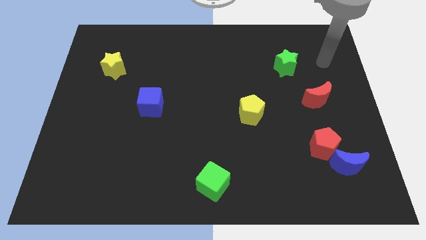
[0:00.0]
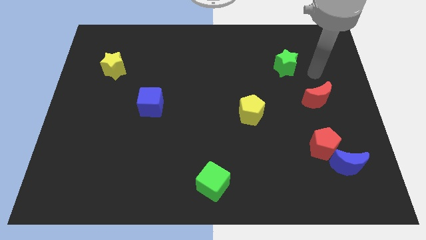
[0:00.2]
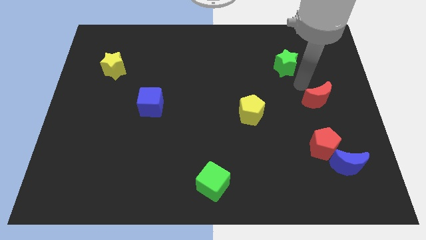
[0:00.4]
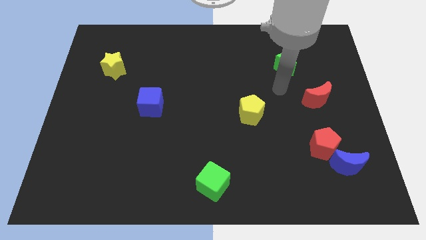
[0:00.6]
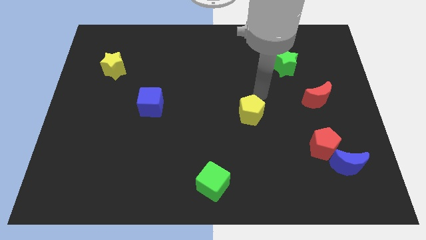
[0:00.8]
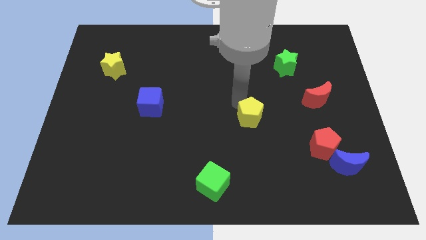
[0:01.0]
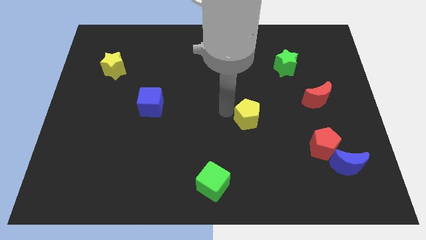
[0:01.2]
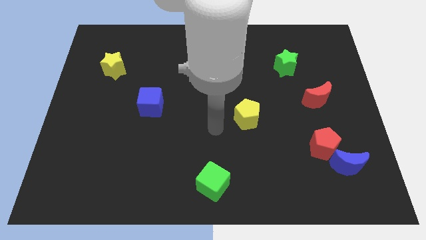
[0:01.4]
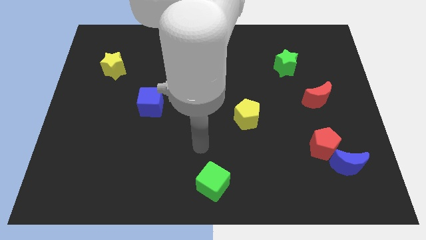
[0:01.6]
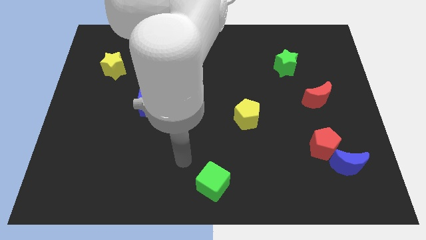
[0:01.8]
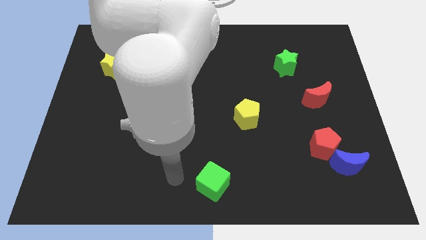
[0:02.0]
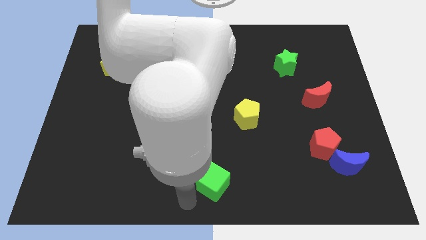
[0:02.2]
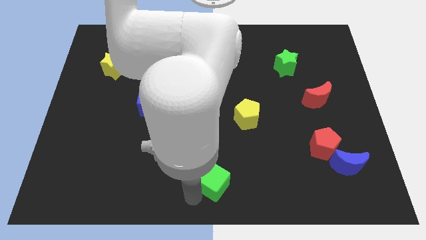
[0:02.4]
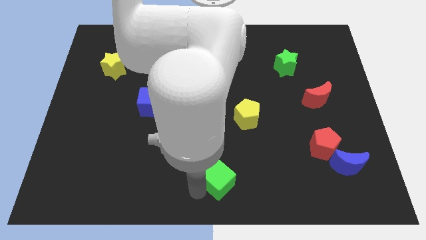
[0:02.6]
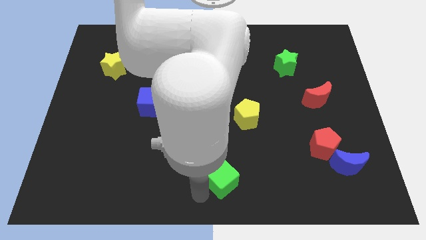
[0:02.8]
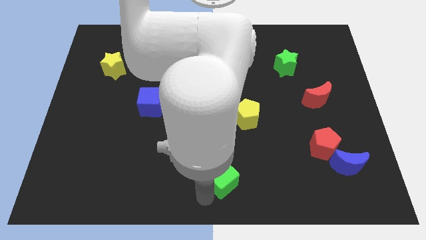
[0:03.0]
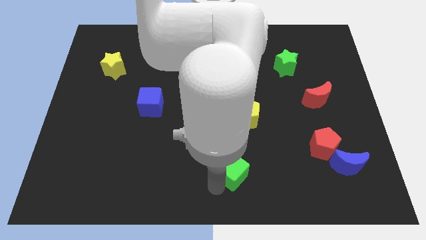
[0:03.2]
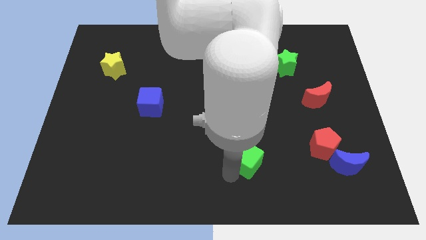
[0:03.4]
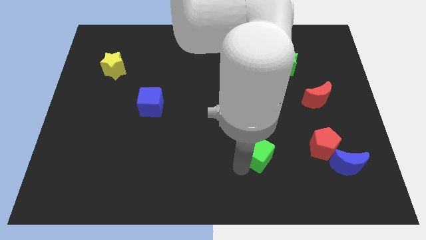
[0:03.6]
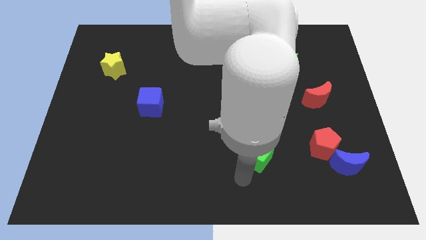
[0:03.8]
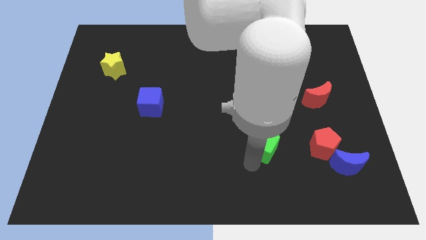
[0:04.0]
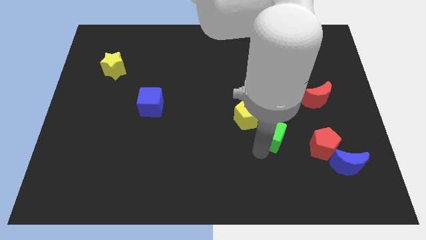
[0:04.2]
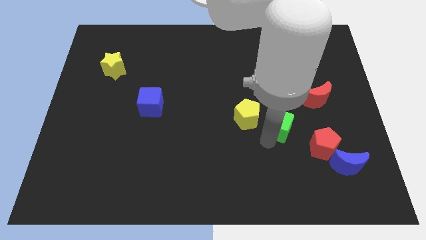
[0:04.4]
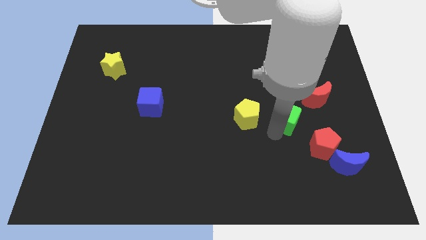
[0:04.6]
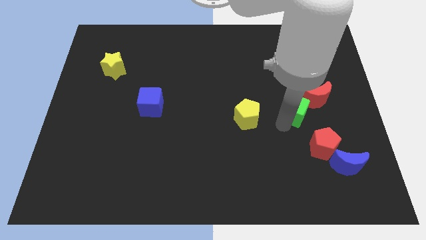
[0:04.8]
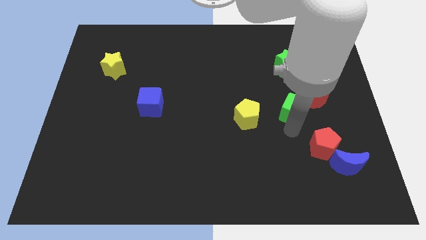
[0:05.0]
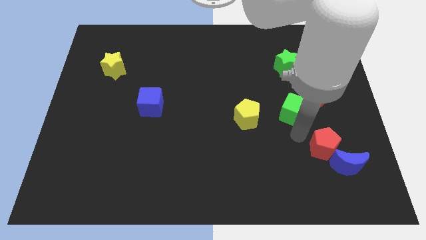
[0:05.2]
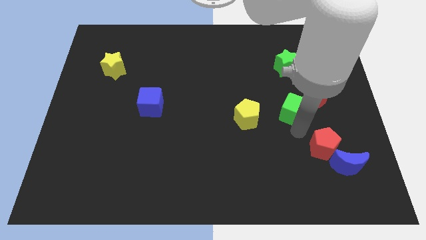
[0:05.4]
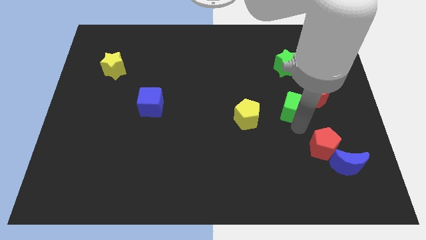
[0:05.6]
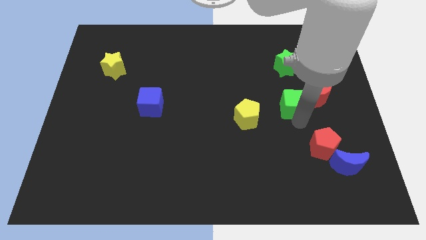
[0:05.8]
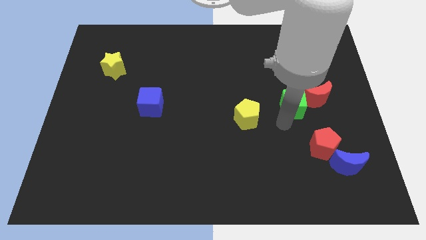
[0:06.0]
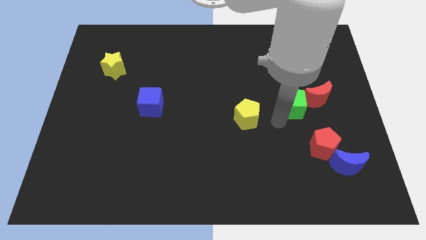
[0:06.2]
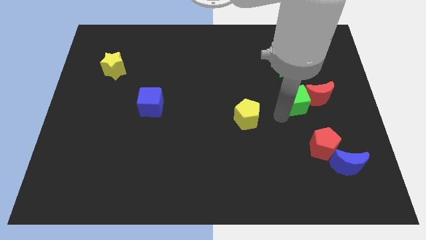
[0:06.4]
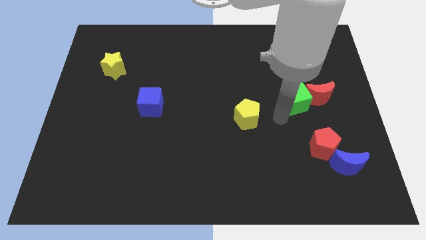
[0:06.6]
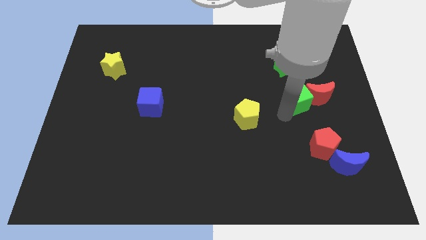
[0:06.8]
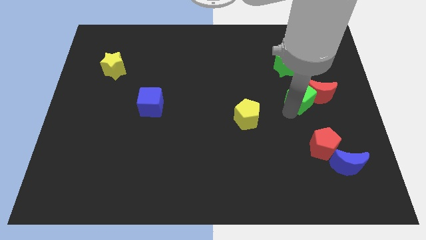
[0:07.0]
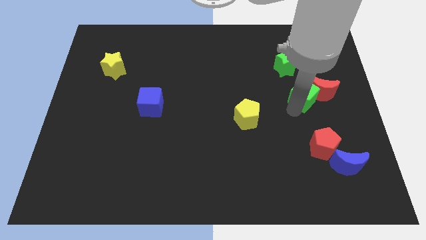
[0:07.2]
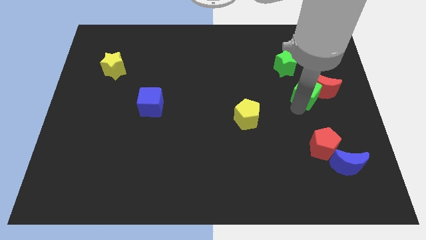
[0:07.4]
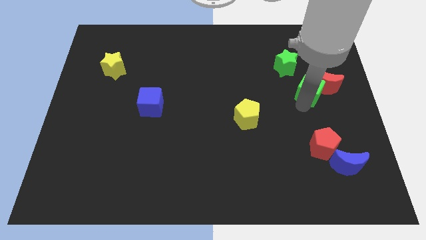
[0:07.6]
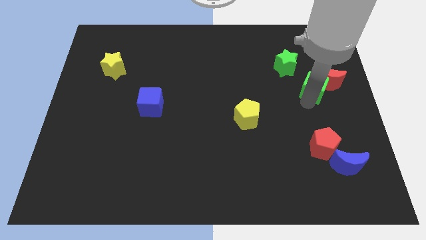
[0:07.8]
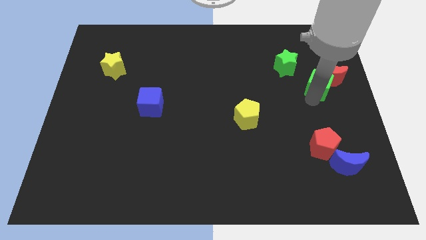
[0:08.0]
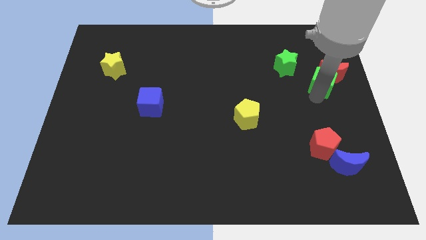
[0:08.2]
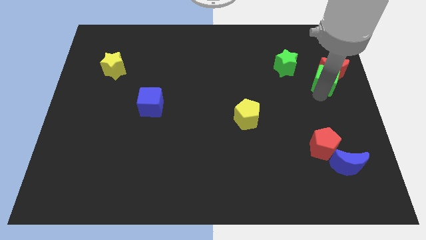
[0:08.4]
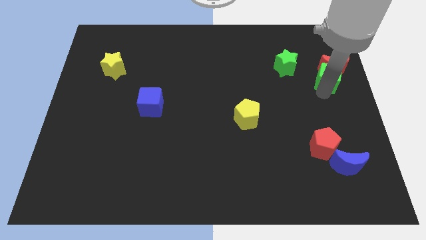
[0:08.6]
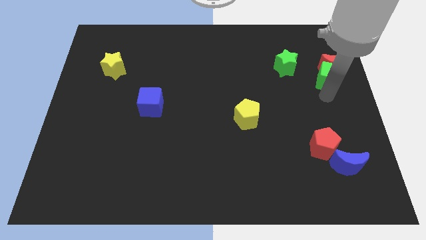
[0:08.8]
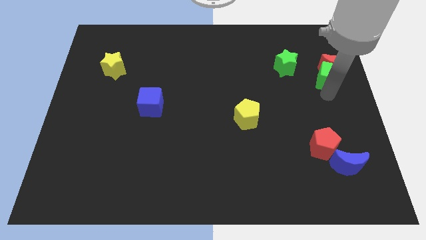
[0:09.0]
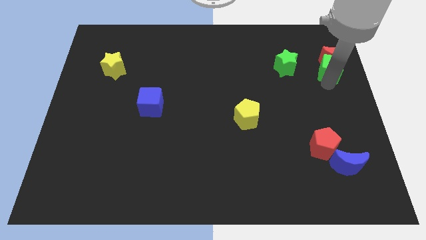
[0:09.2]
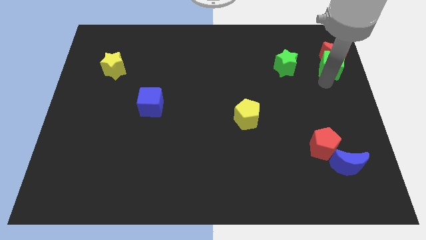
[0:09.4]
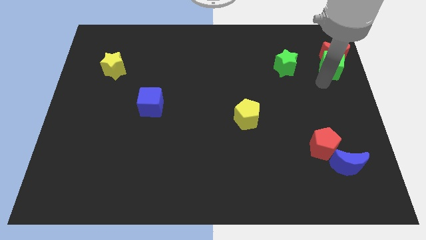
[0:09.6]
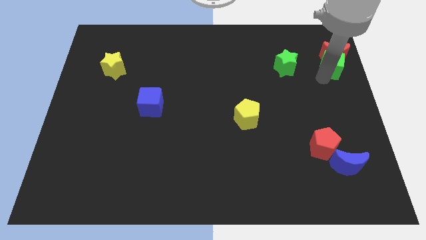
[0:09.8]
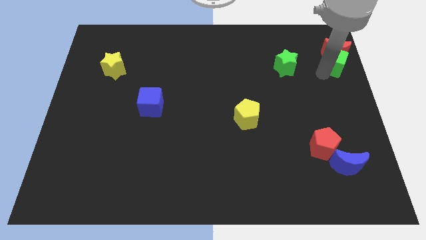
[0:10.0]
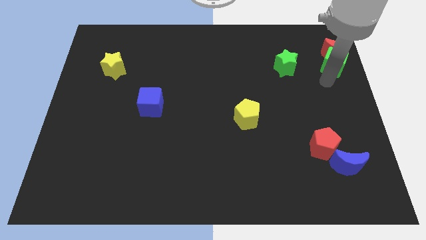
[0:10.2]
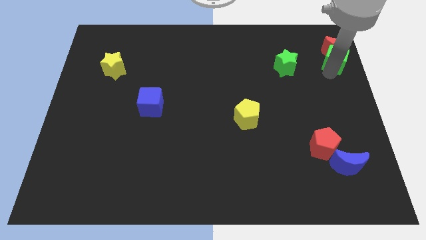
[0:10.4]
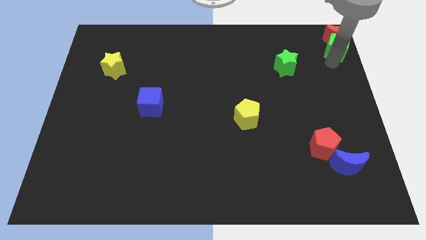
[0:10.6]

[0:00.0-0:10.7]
move the green cube to the top right corner

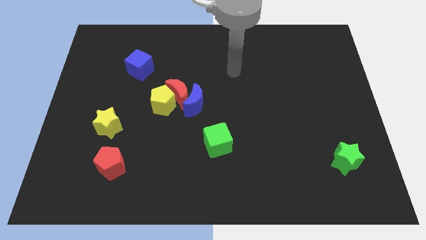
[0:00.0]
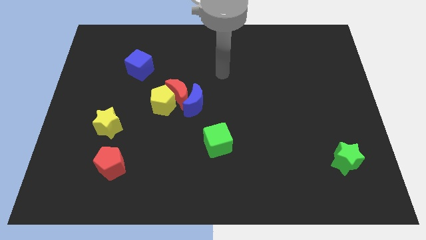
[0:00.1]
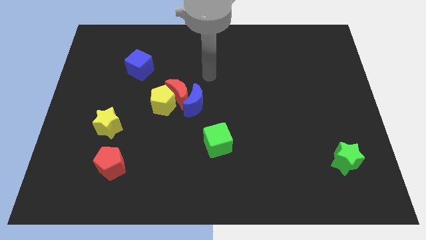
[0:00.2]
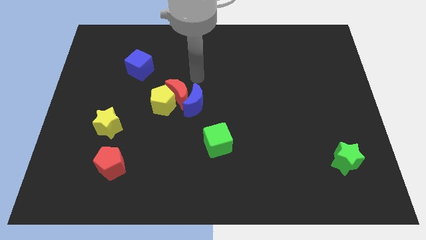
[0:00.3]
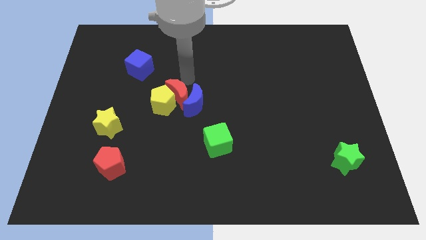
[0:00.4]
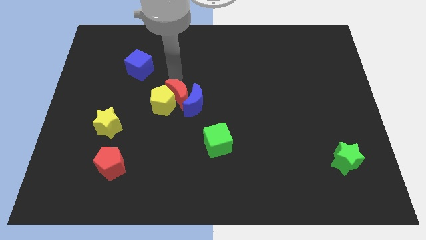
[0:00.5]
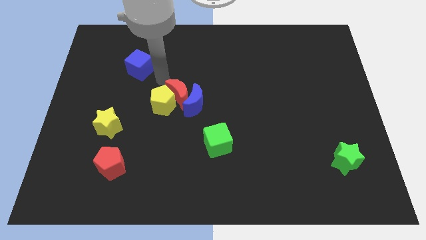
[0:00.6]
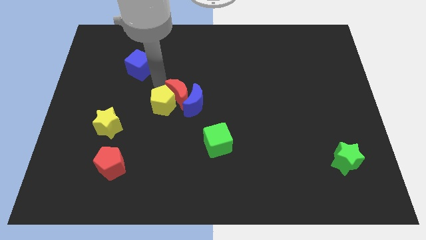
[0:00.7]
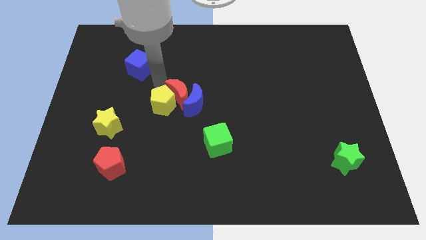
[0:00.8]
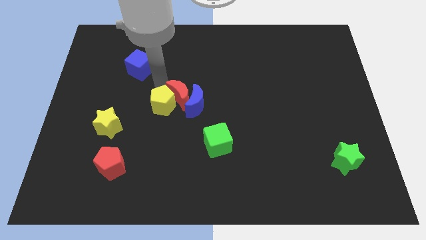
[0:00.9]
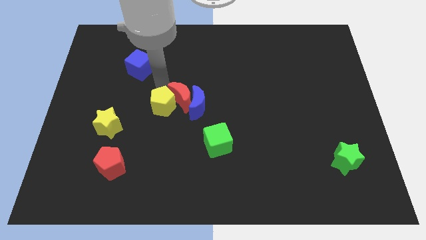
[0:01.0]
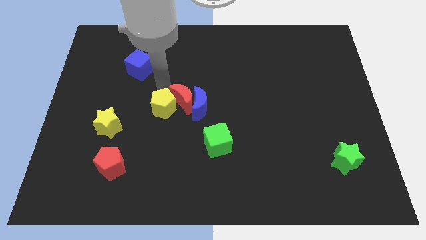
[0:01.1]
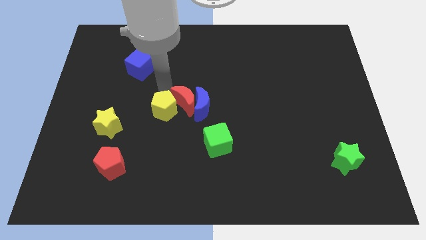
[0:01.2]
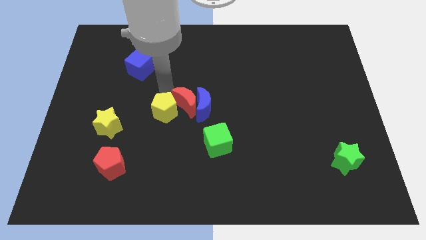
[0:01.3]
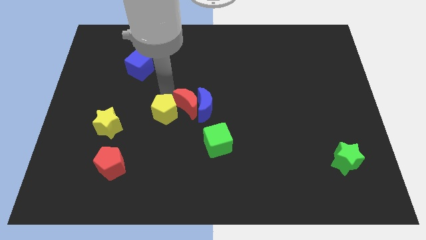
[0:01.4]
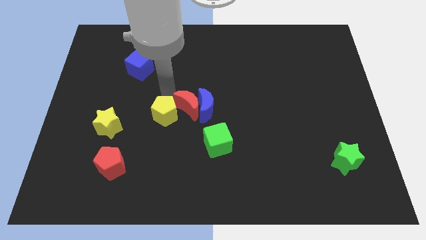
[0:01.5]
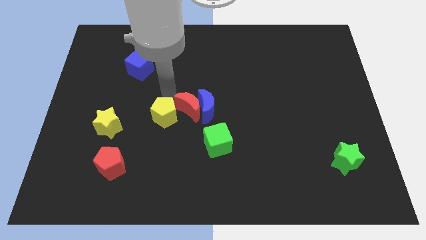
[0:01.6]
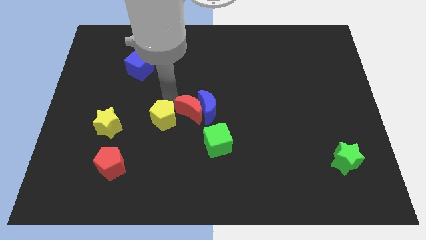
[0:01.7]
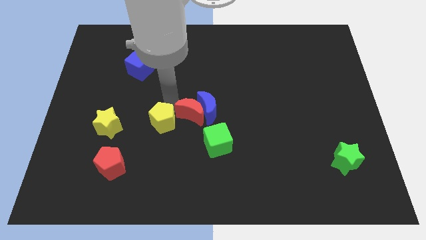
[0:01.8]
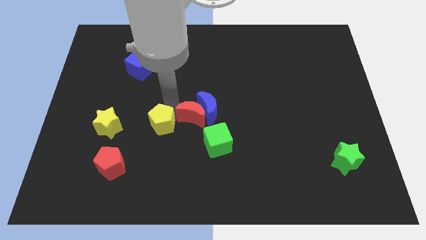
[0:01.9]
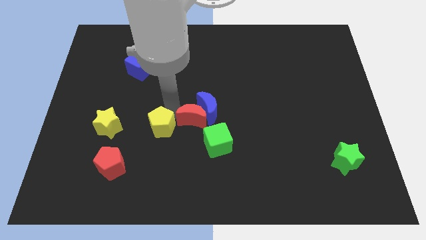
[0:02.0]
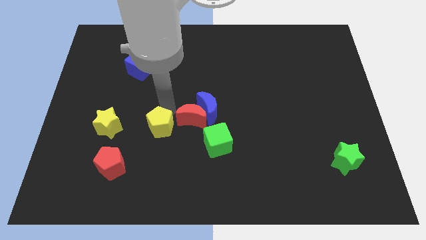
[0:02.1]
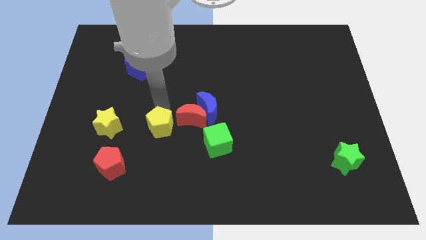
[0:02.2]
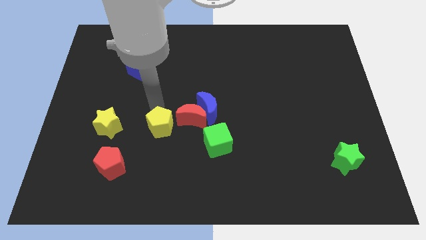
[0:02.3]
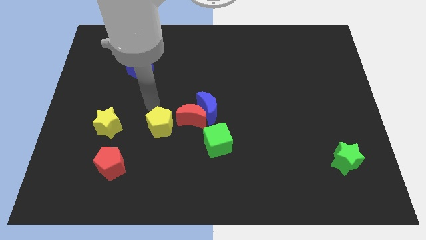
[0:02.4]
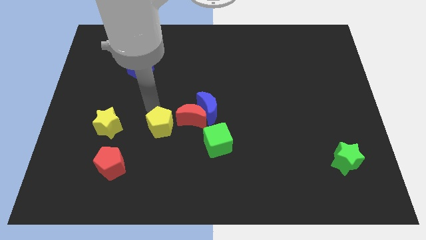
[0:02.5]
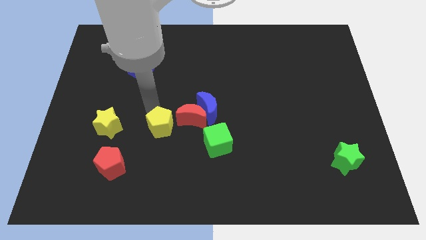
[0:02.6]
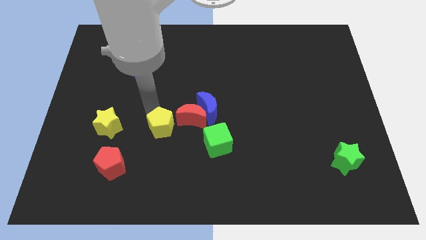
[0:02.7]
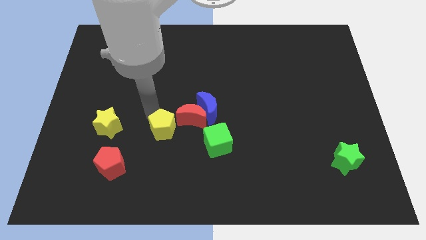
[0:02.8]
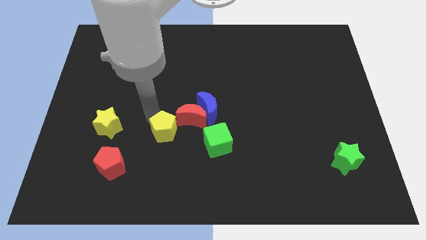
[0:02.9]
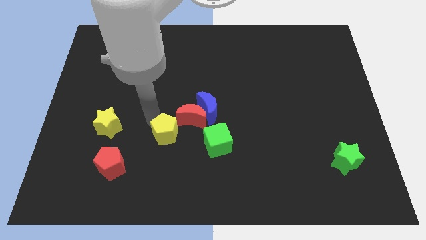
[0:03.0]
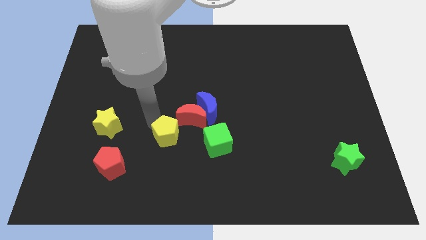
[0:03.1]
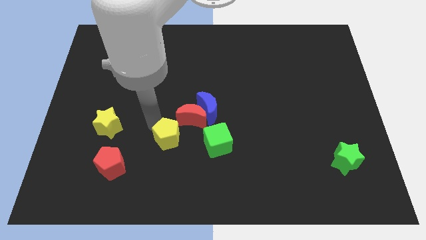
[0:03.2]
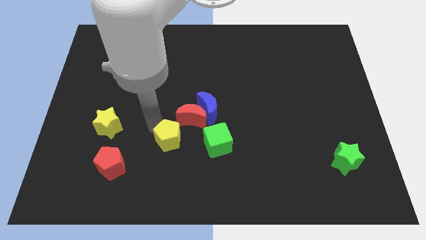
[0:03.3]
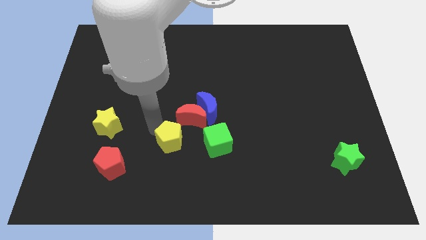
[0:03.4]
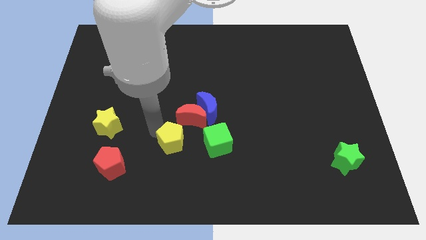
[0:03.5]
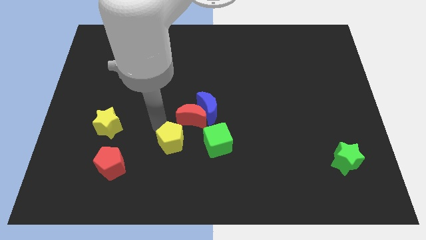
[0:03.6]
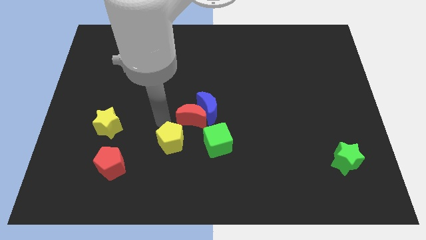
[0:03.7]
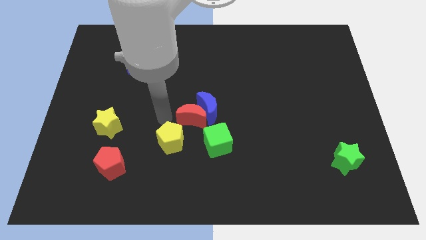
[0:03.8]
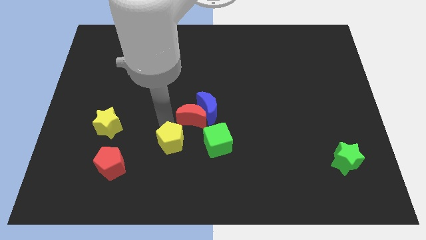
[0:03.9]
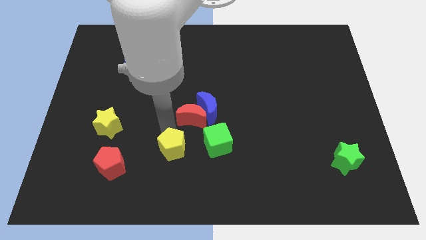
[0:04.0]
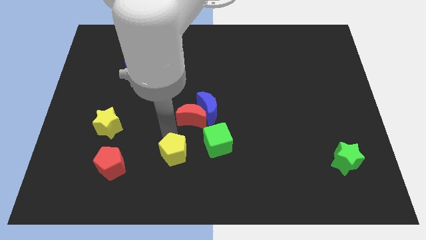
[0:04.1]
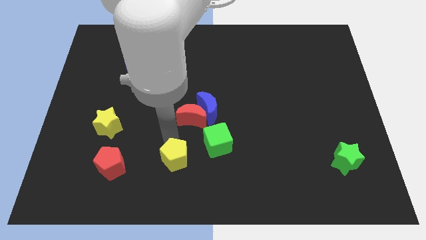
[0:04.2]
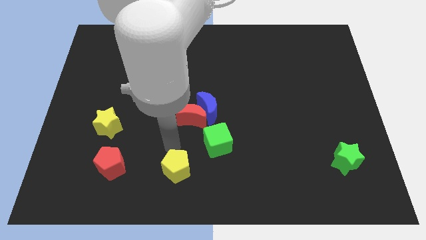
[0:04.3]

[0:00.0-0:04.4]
slide the yellow pentagon to the bottom side
